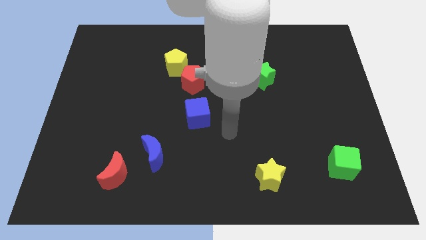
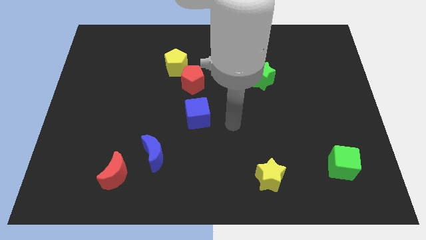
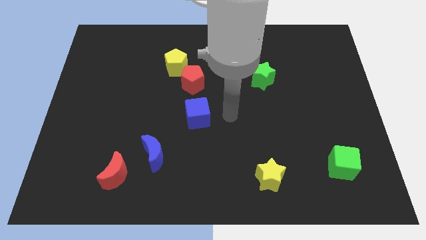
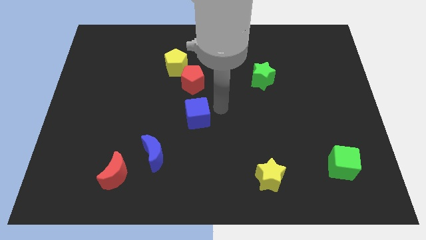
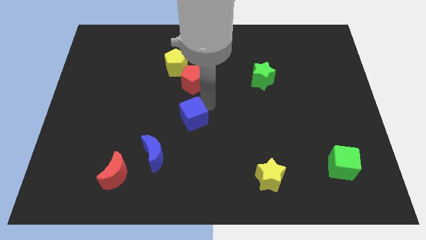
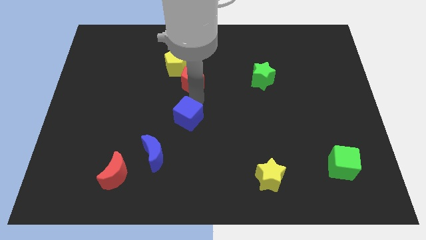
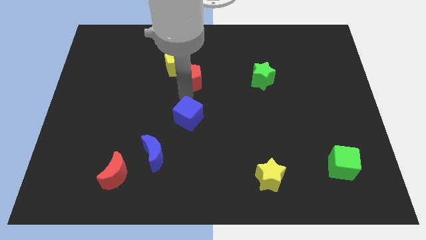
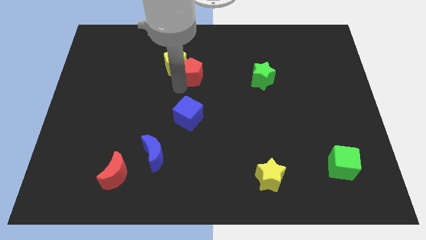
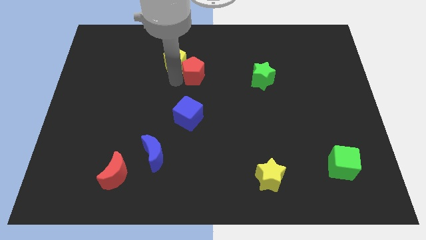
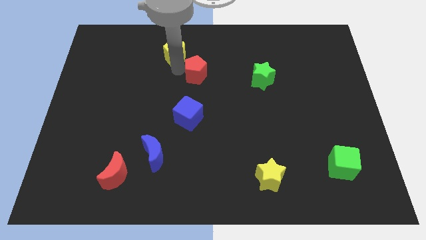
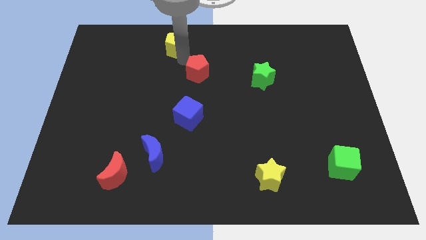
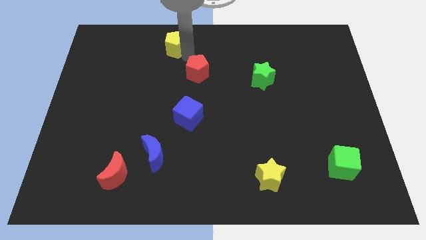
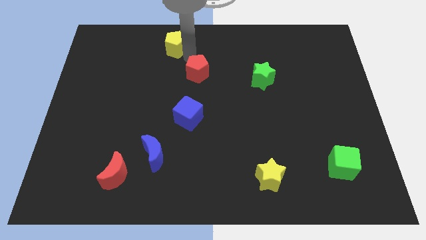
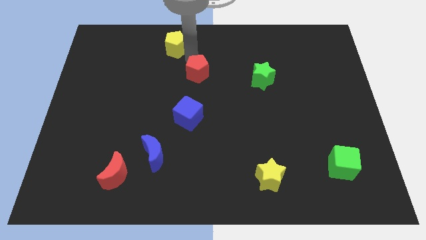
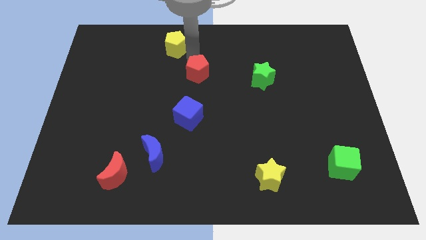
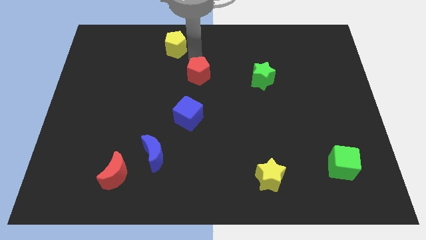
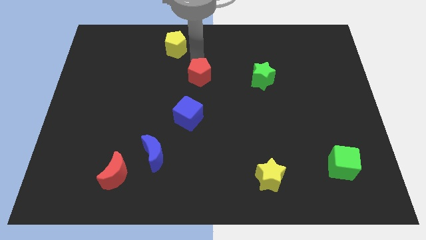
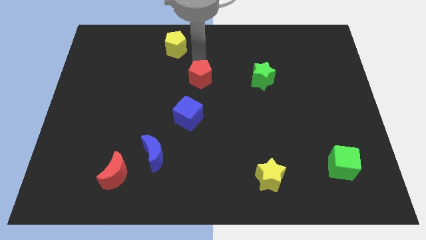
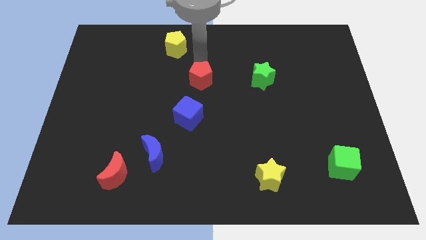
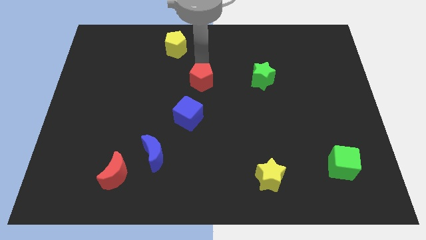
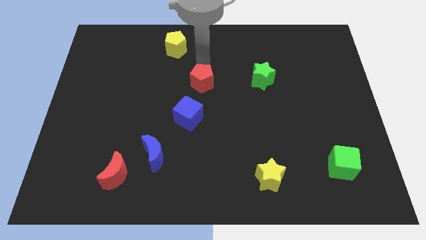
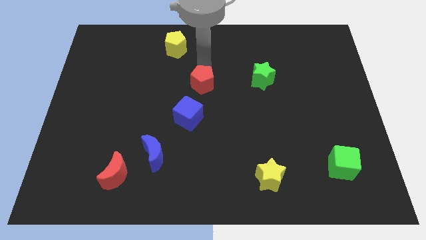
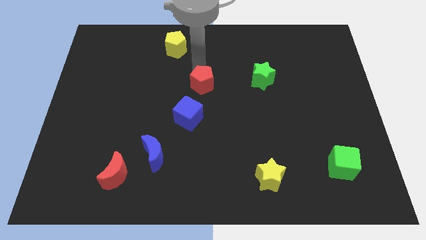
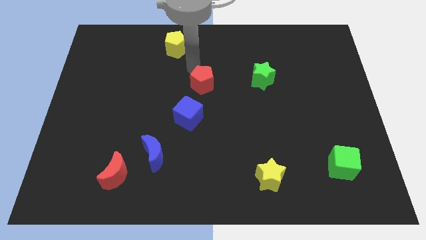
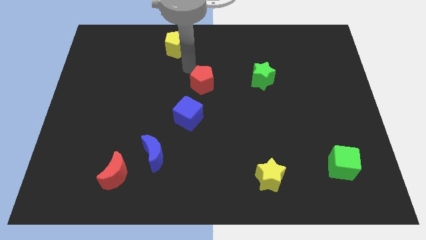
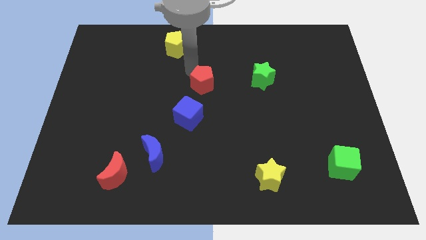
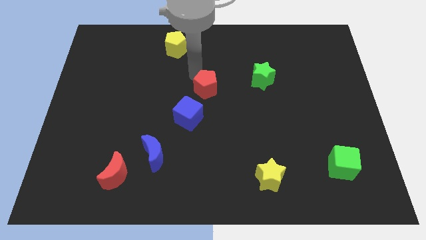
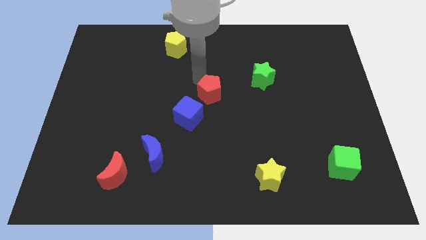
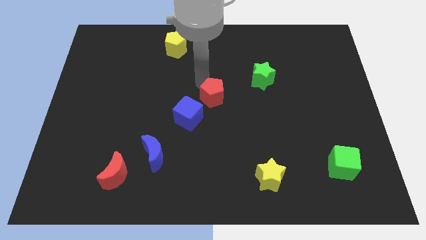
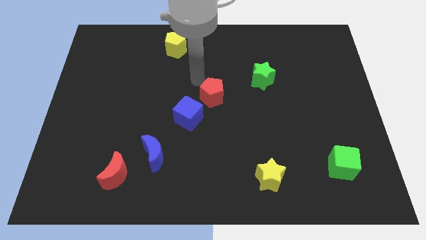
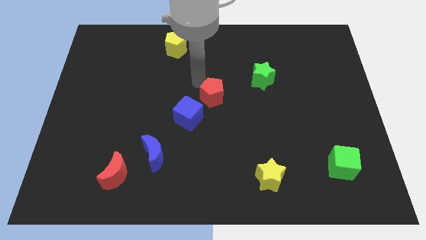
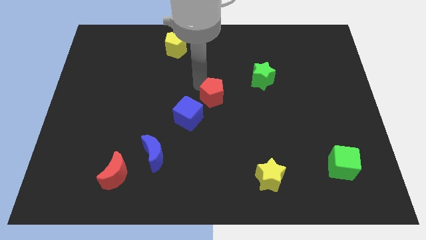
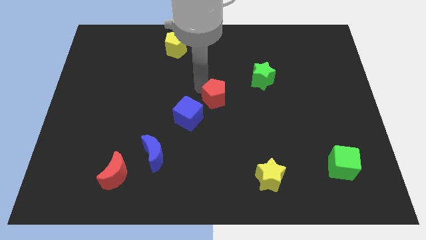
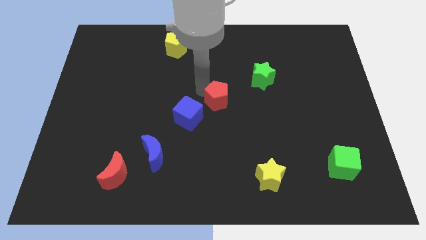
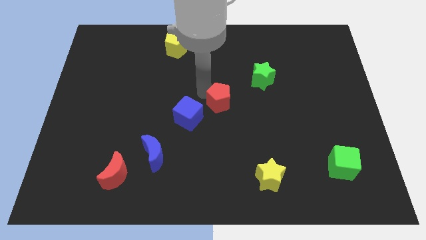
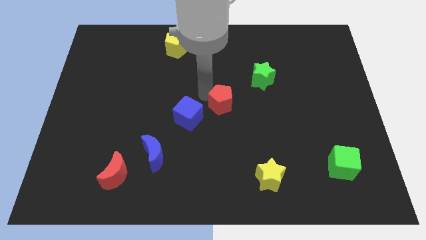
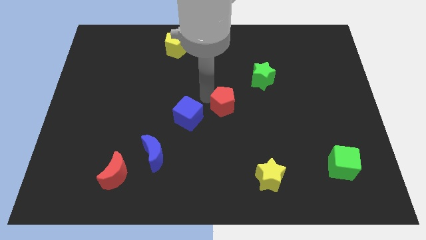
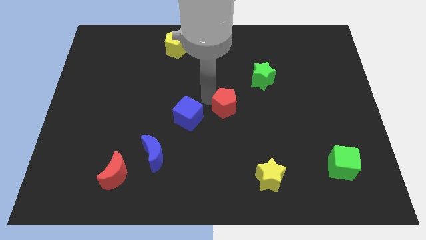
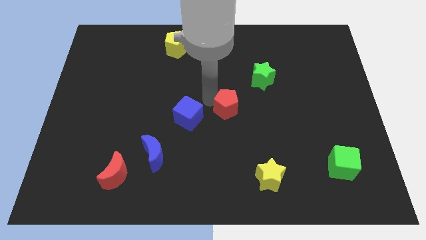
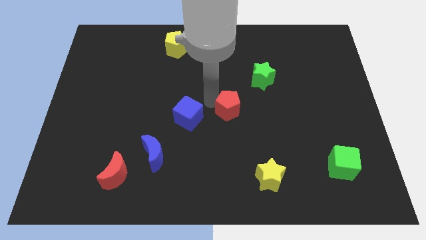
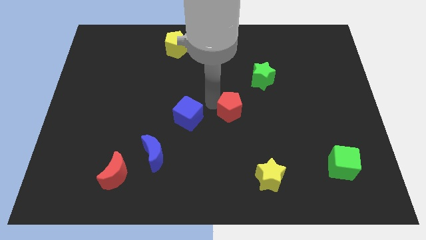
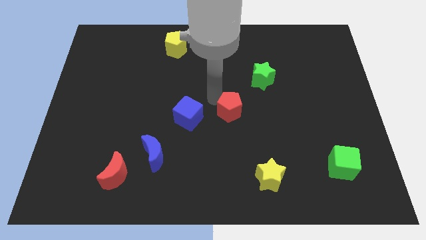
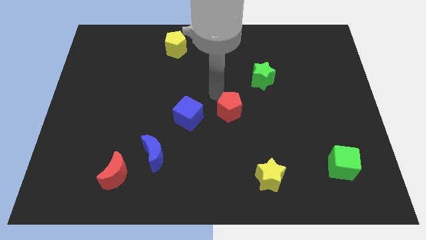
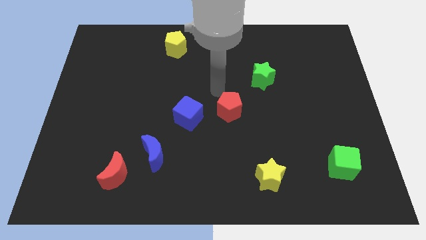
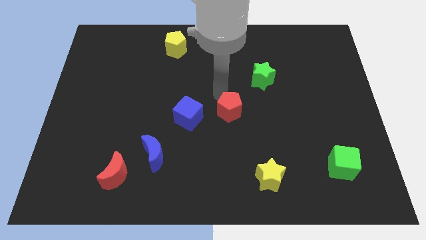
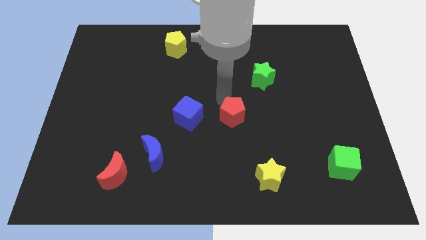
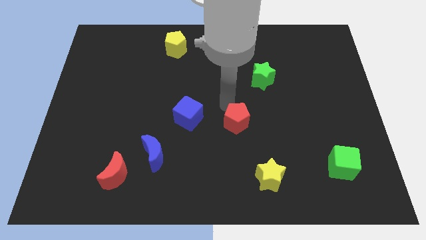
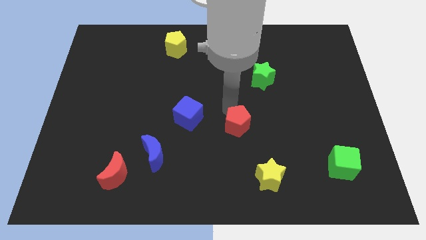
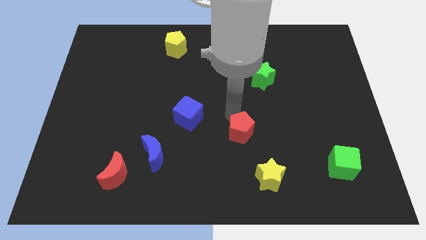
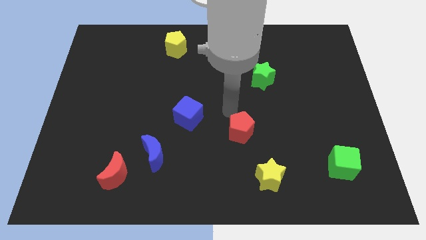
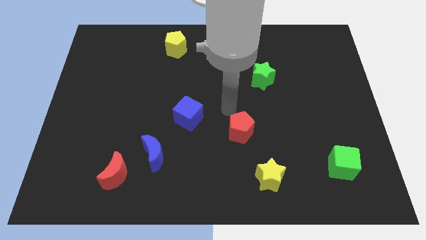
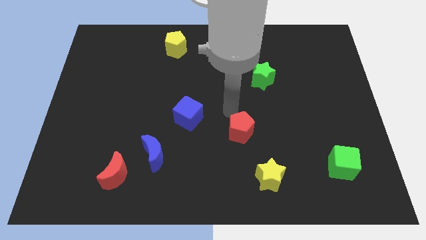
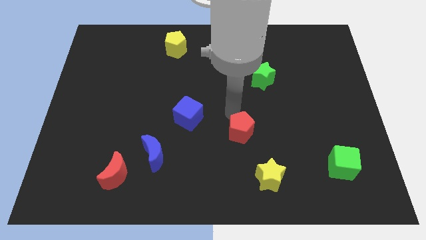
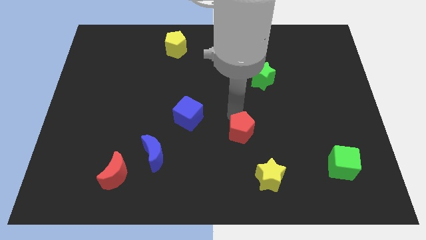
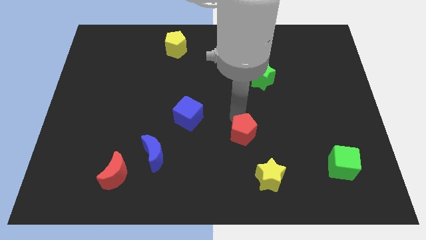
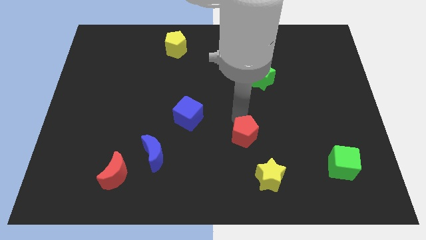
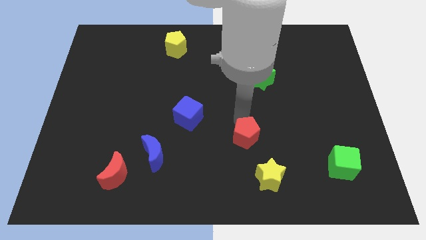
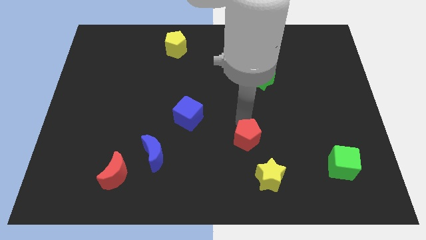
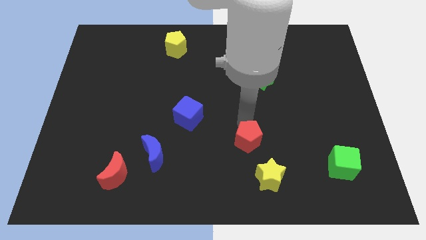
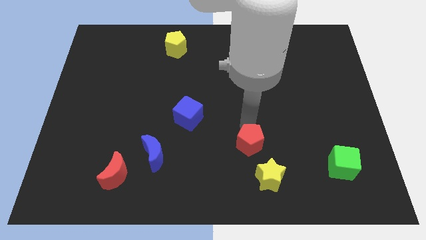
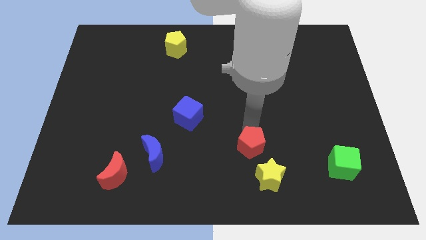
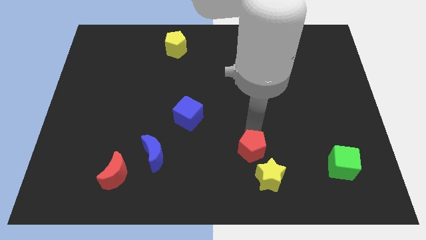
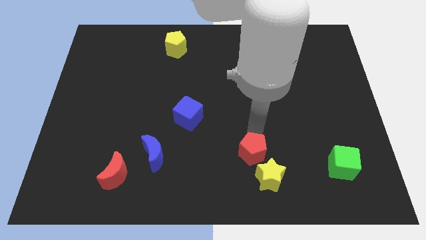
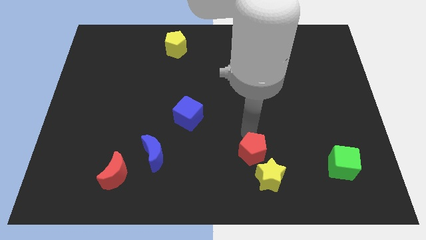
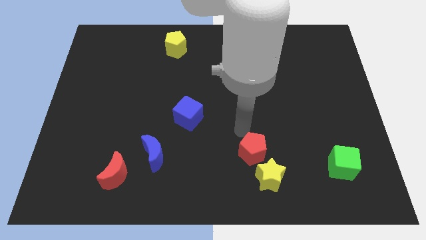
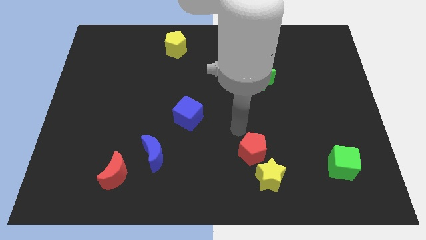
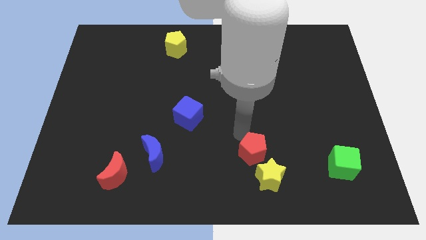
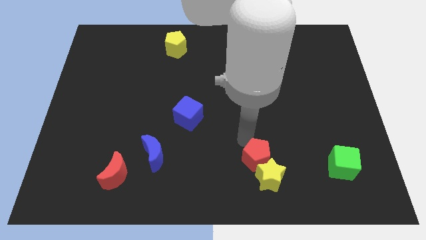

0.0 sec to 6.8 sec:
slide the red pentagon to the yellow star
